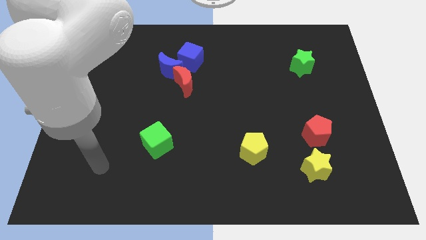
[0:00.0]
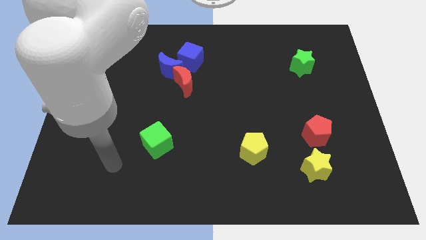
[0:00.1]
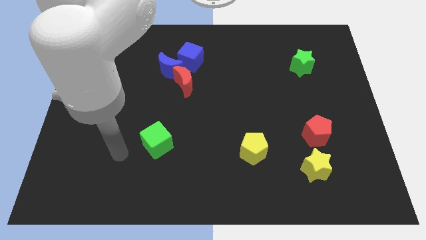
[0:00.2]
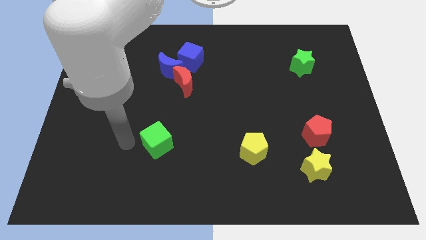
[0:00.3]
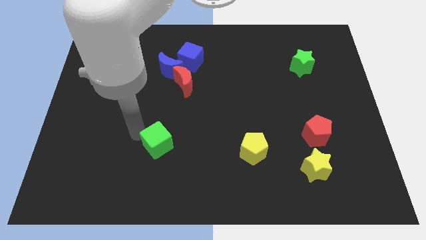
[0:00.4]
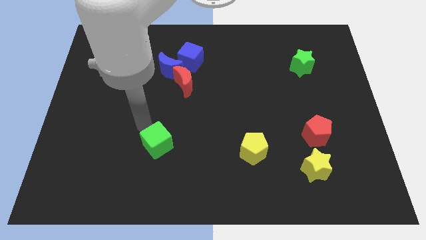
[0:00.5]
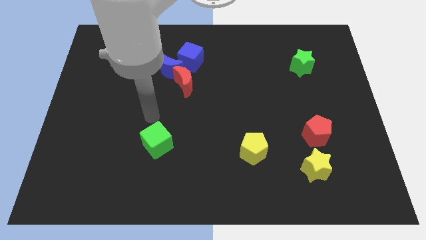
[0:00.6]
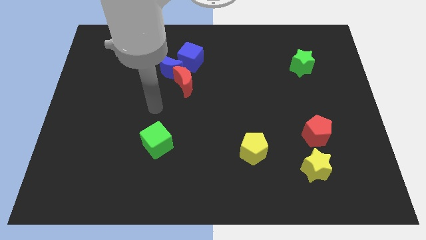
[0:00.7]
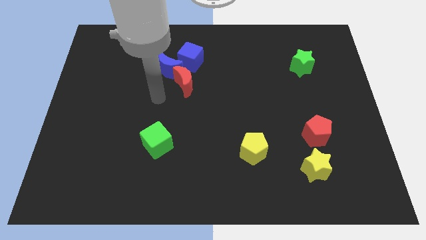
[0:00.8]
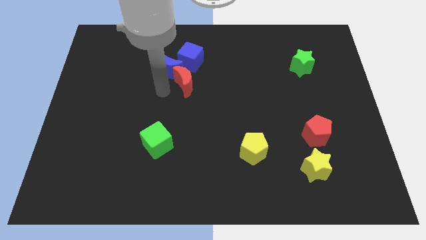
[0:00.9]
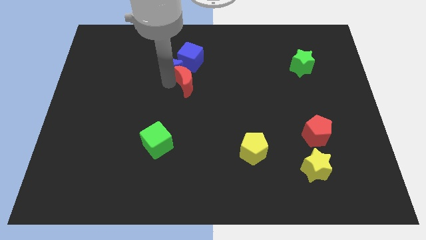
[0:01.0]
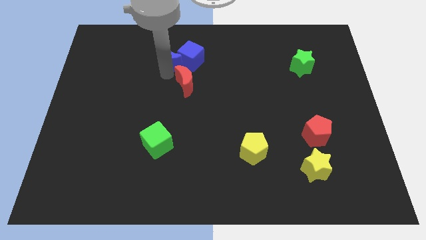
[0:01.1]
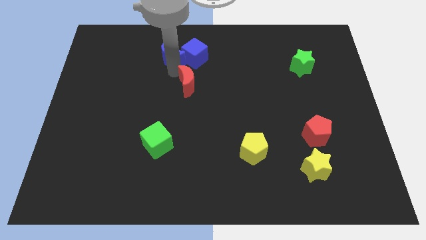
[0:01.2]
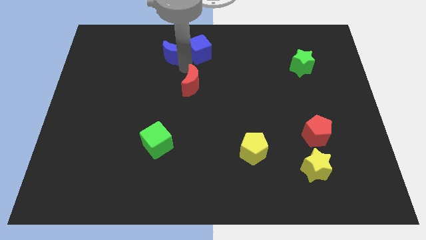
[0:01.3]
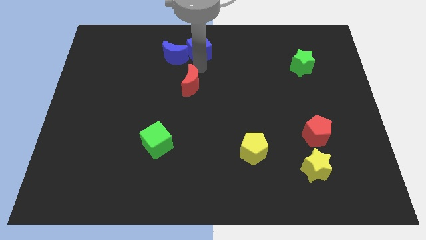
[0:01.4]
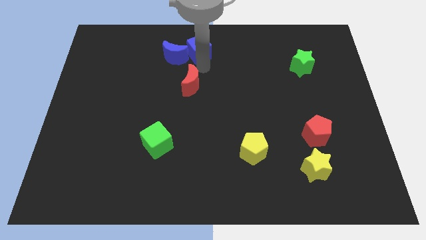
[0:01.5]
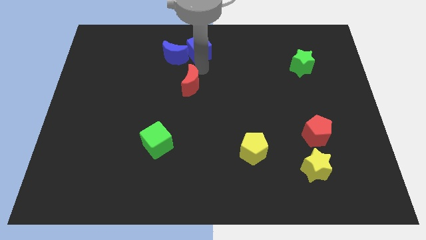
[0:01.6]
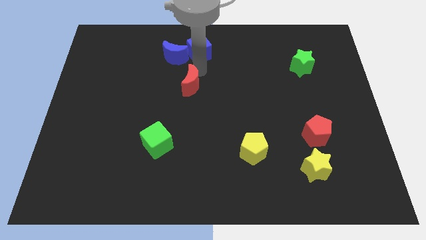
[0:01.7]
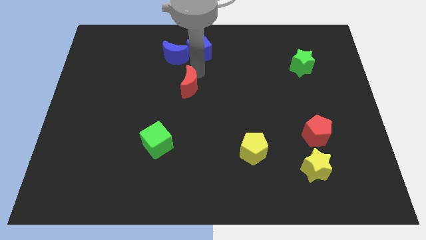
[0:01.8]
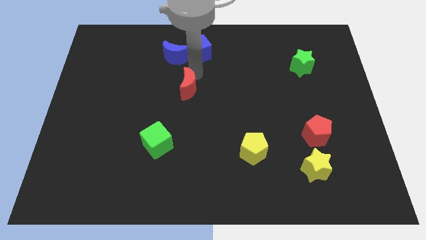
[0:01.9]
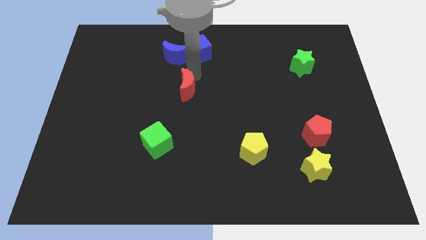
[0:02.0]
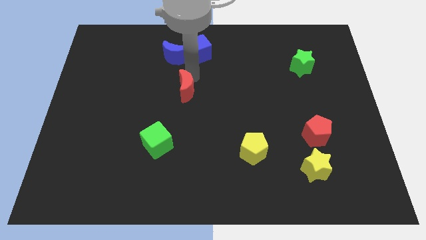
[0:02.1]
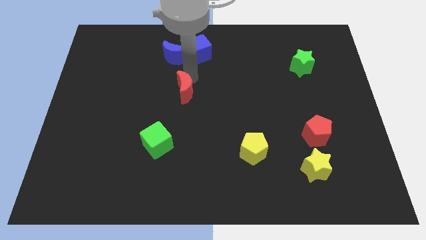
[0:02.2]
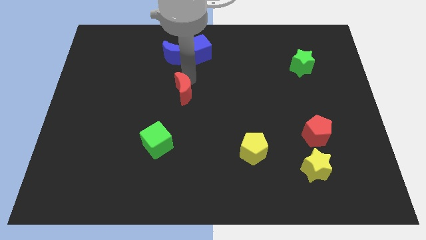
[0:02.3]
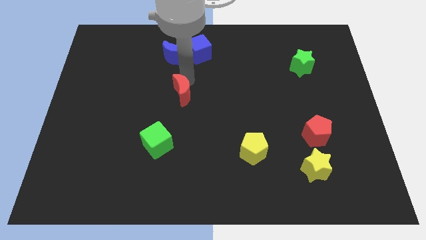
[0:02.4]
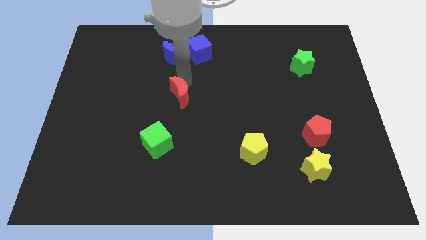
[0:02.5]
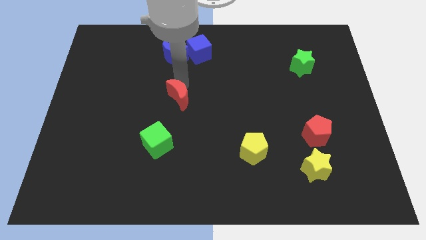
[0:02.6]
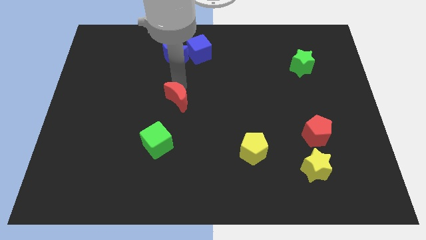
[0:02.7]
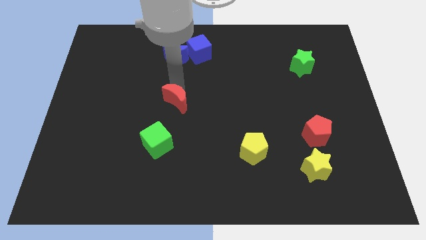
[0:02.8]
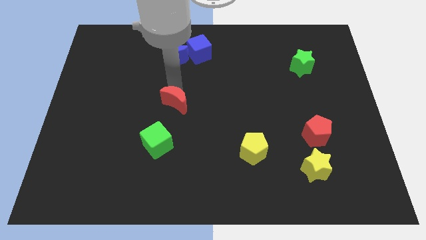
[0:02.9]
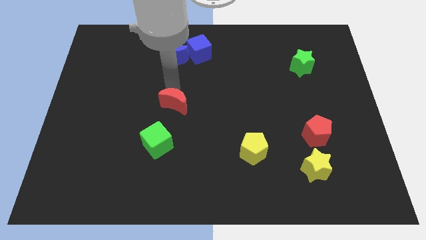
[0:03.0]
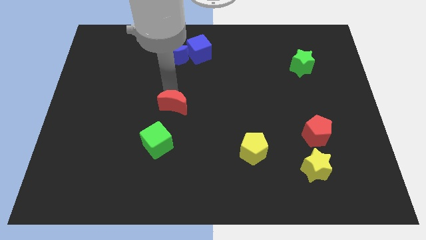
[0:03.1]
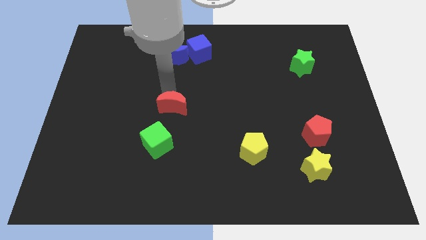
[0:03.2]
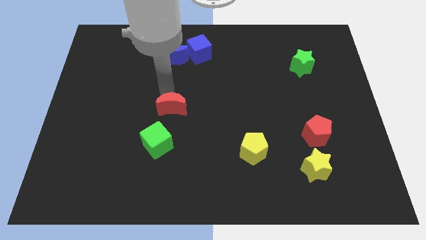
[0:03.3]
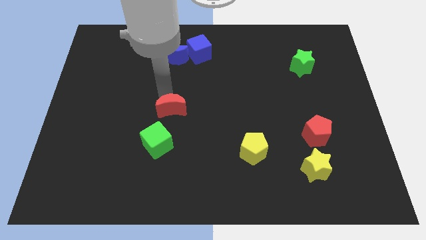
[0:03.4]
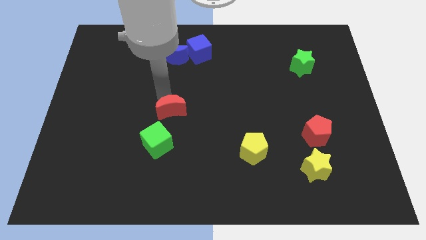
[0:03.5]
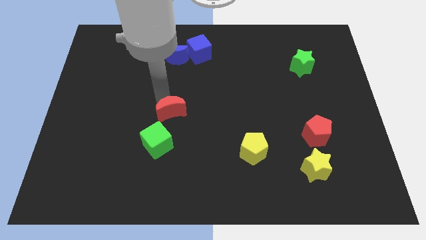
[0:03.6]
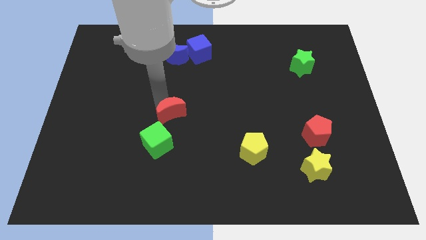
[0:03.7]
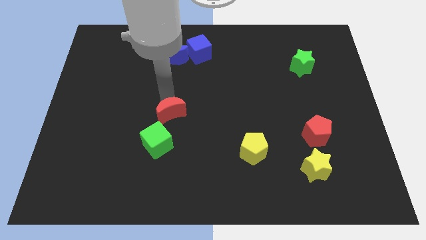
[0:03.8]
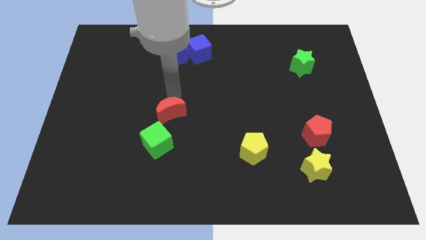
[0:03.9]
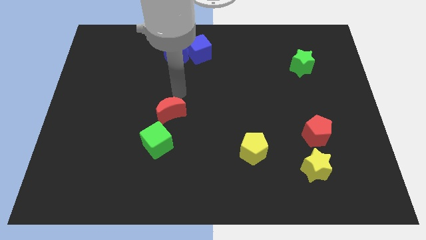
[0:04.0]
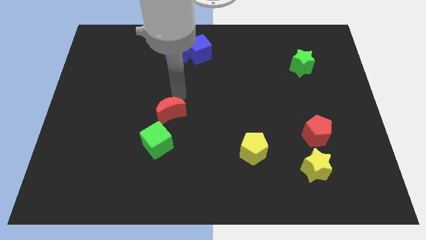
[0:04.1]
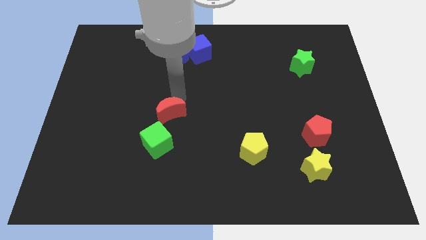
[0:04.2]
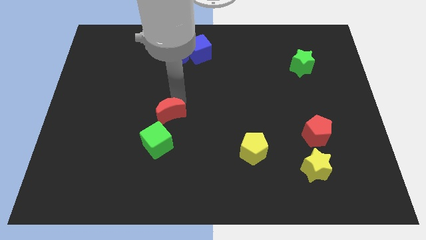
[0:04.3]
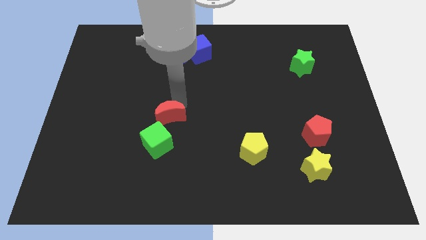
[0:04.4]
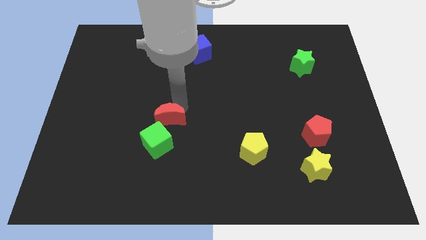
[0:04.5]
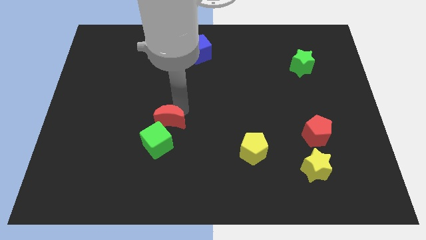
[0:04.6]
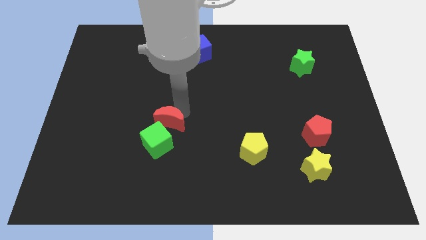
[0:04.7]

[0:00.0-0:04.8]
move the red moon close to the green cube

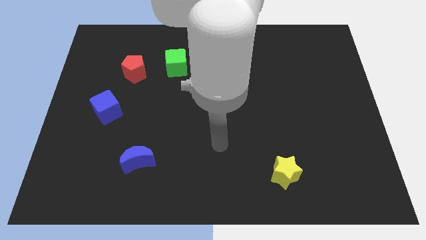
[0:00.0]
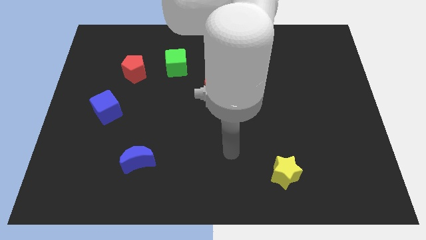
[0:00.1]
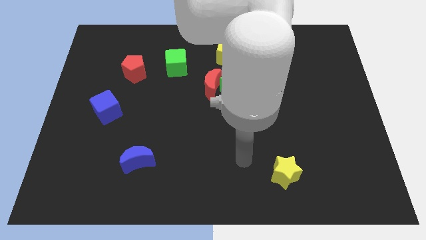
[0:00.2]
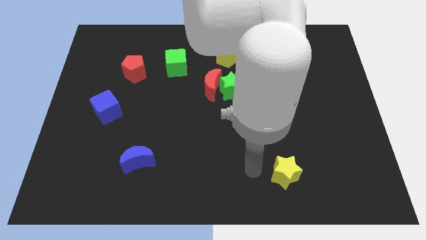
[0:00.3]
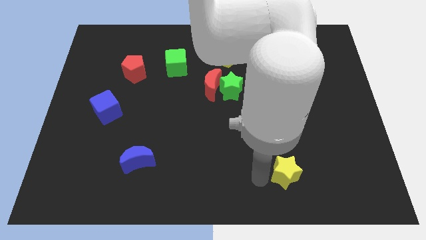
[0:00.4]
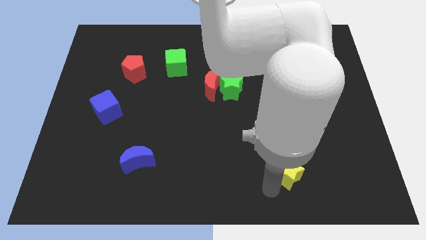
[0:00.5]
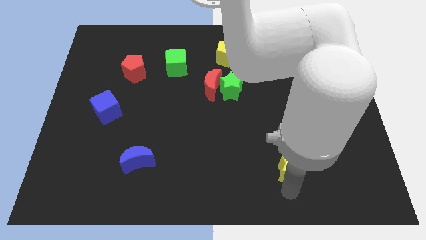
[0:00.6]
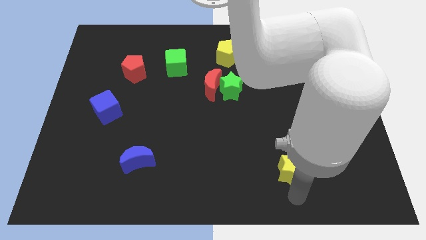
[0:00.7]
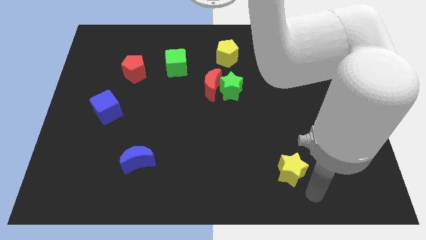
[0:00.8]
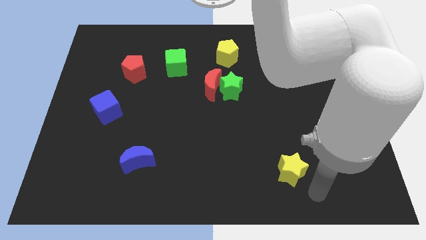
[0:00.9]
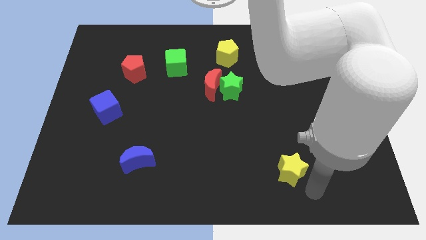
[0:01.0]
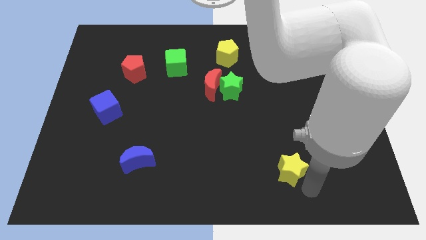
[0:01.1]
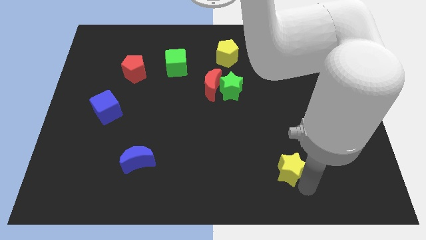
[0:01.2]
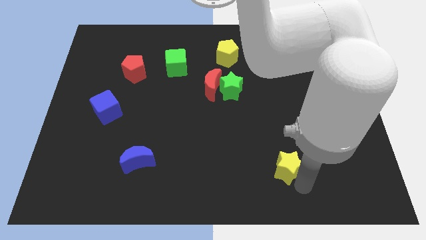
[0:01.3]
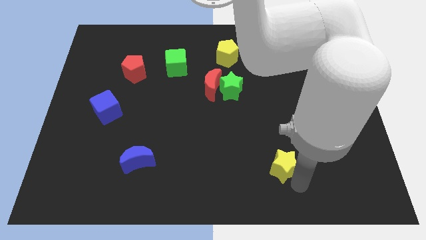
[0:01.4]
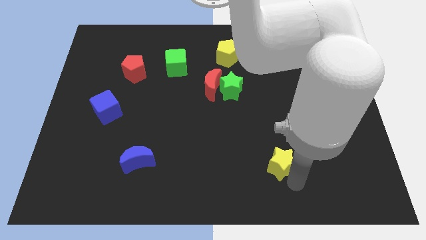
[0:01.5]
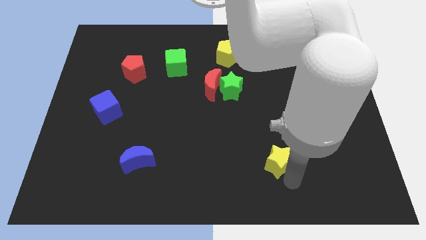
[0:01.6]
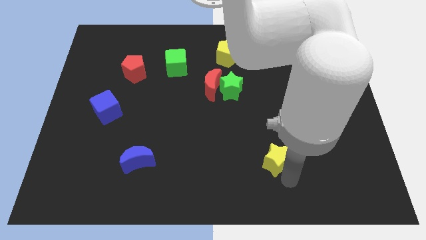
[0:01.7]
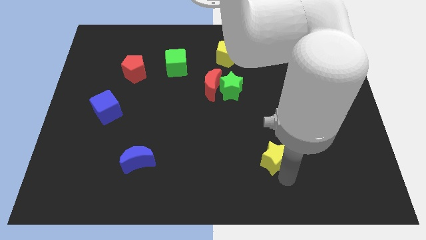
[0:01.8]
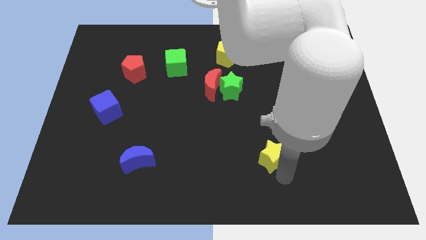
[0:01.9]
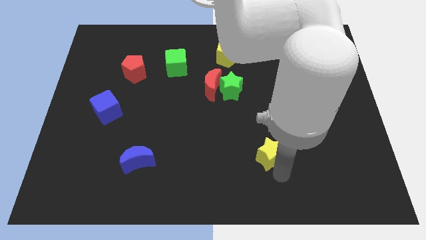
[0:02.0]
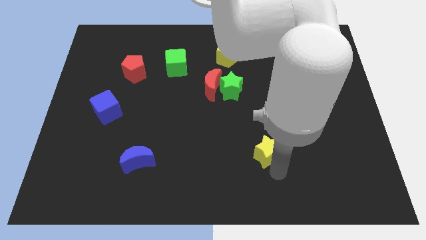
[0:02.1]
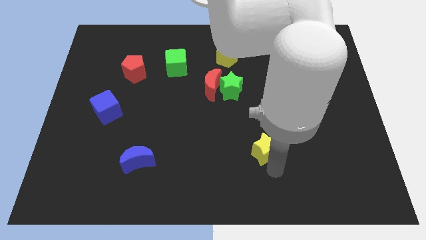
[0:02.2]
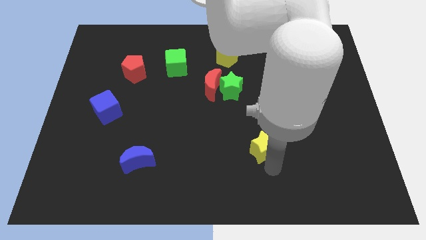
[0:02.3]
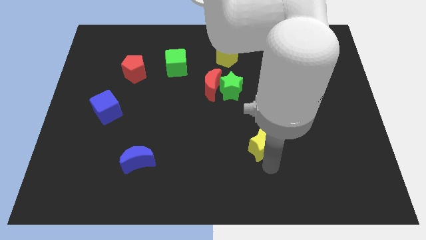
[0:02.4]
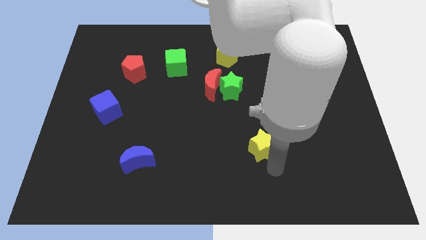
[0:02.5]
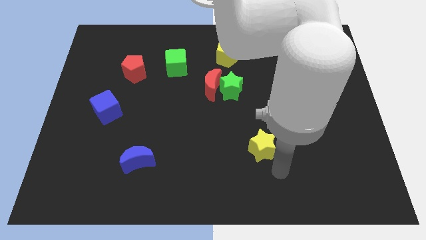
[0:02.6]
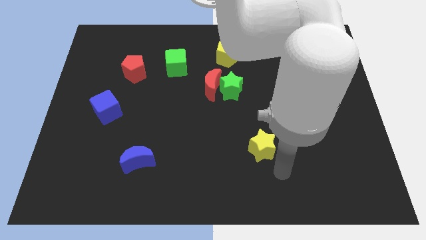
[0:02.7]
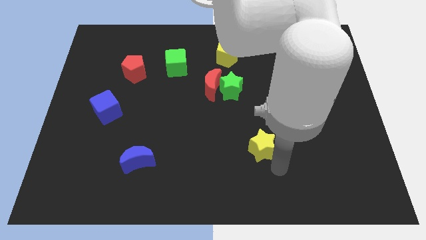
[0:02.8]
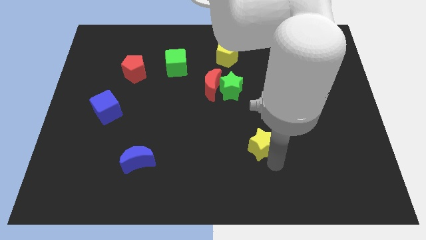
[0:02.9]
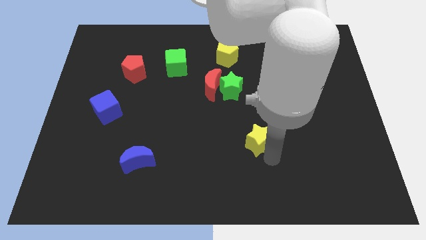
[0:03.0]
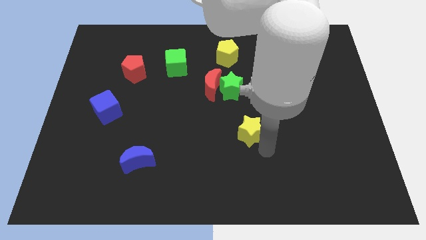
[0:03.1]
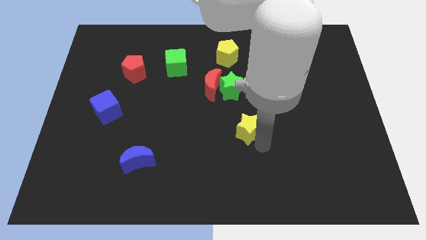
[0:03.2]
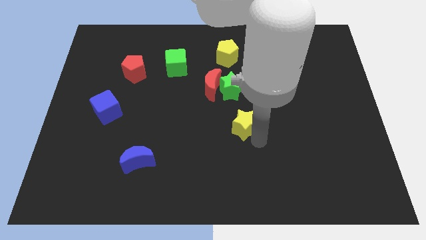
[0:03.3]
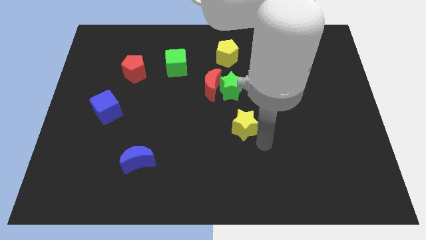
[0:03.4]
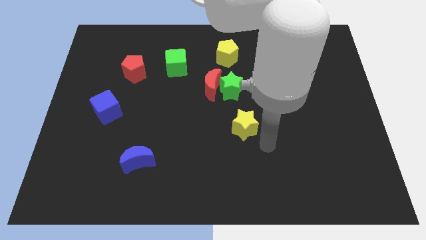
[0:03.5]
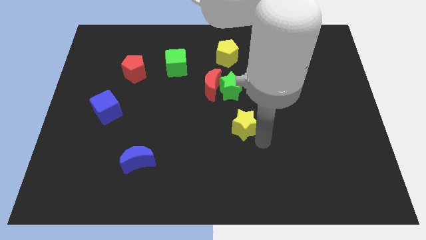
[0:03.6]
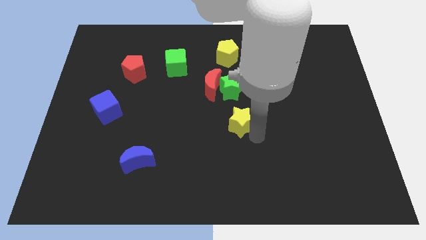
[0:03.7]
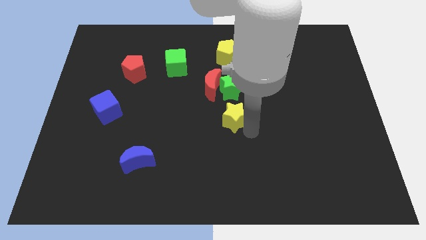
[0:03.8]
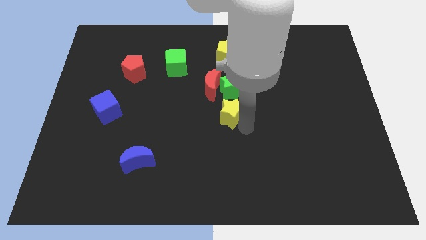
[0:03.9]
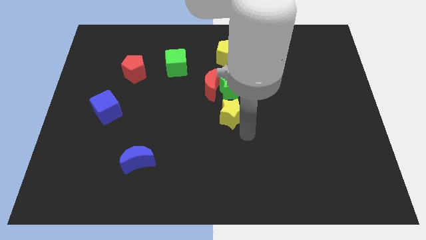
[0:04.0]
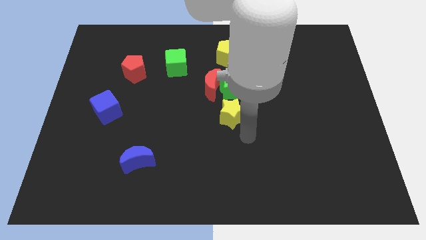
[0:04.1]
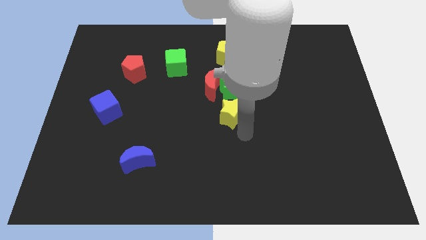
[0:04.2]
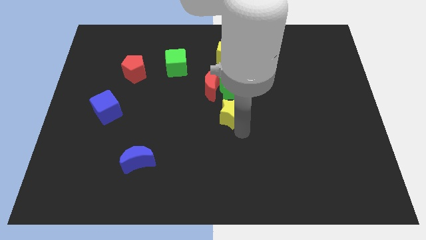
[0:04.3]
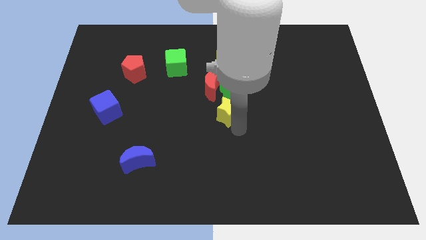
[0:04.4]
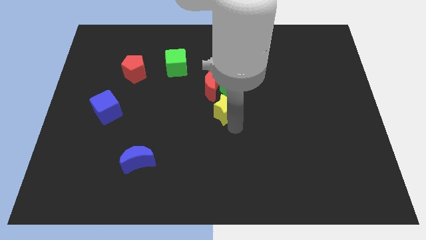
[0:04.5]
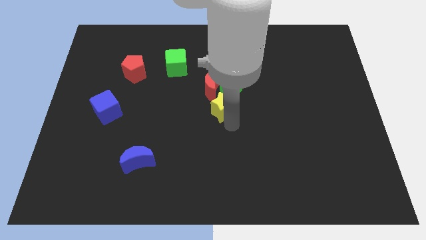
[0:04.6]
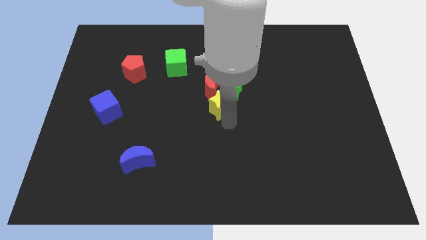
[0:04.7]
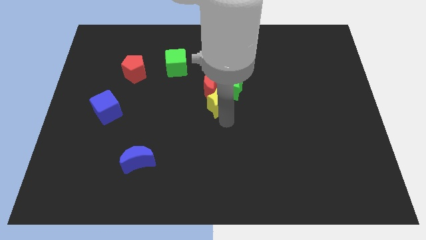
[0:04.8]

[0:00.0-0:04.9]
put the yellow star towards the red moon
